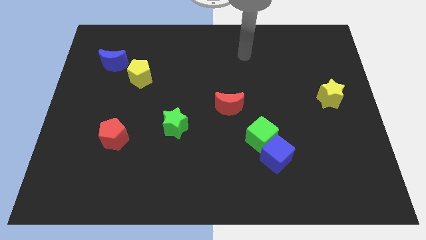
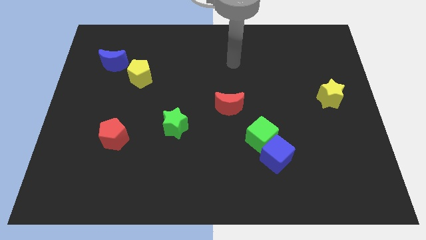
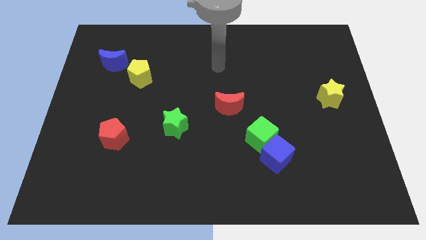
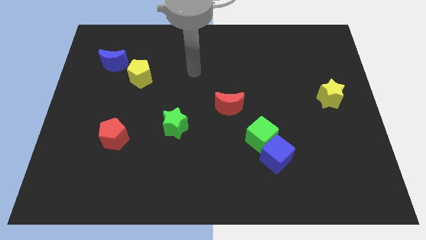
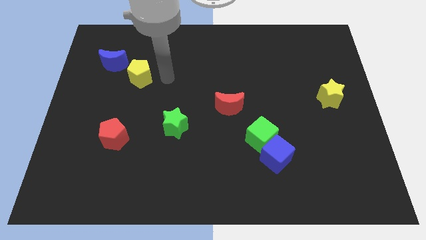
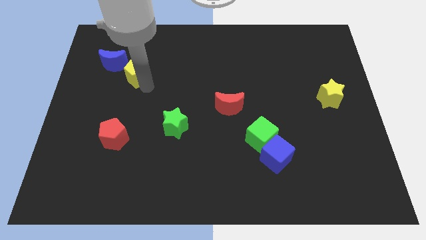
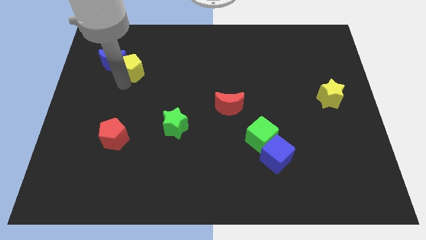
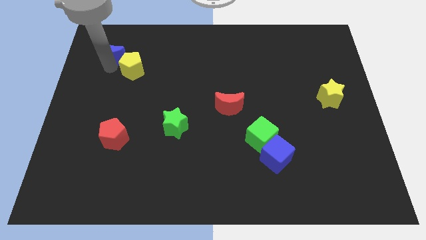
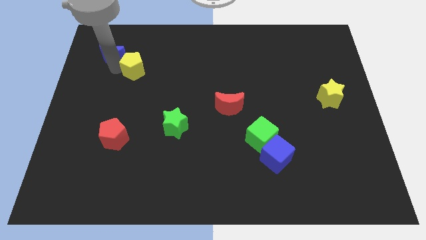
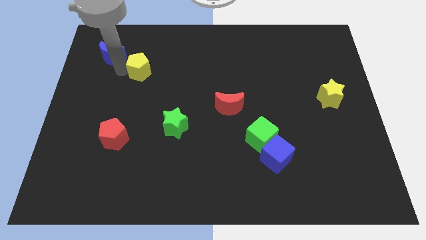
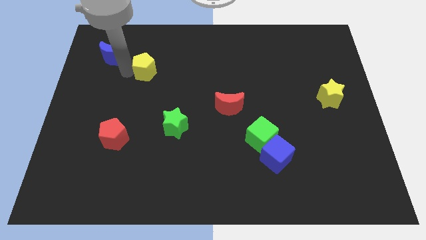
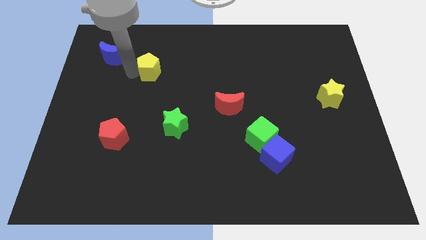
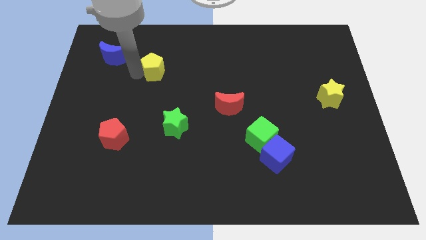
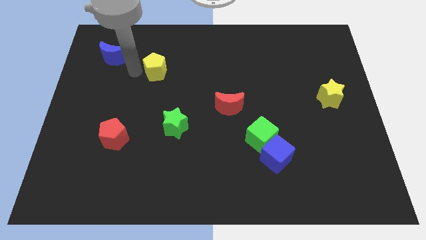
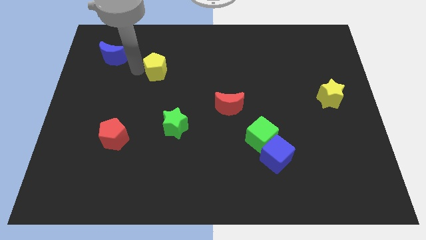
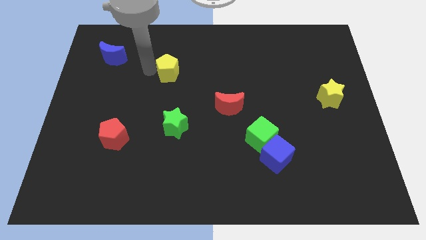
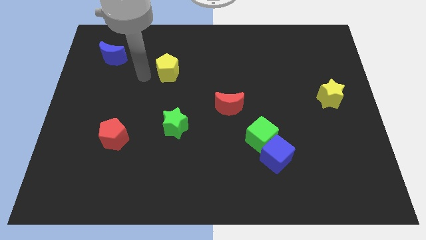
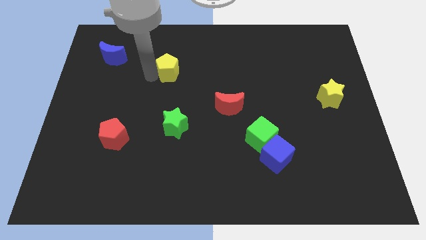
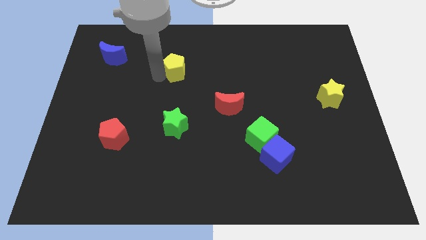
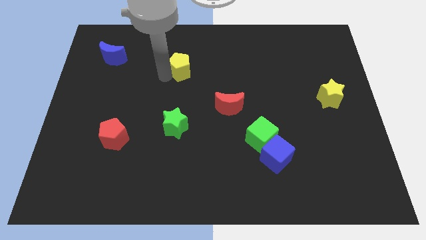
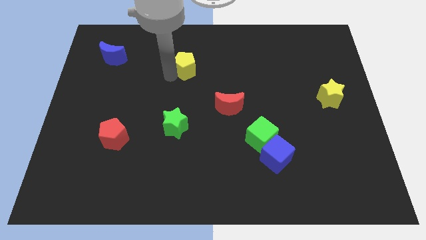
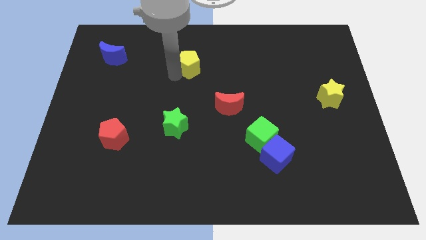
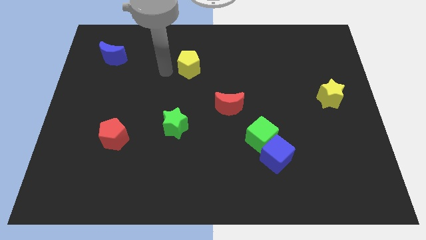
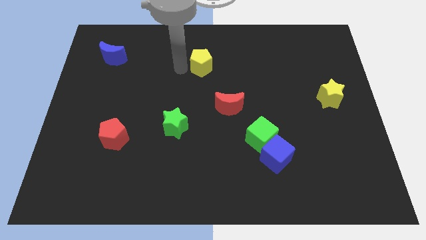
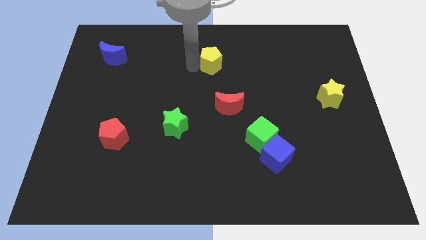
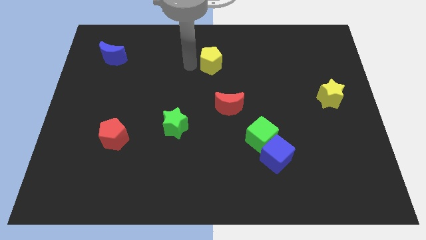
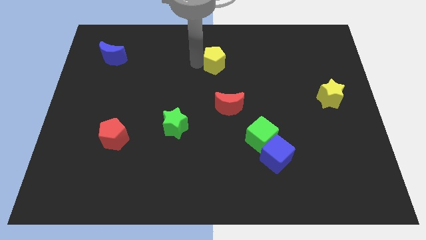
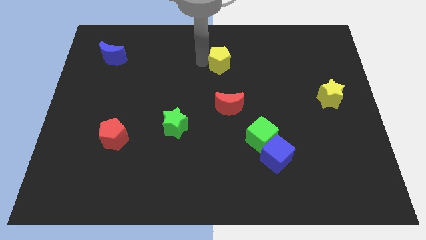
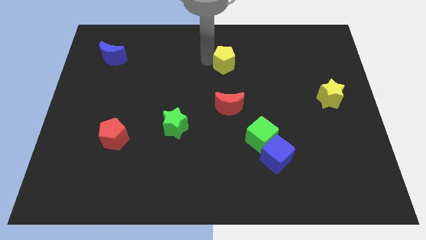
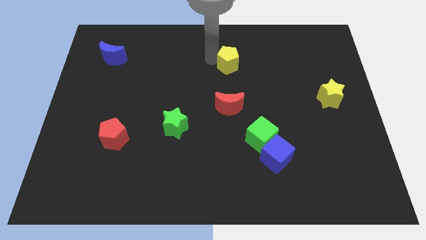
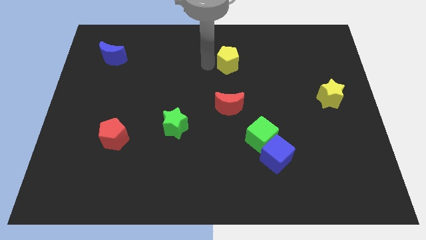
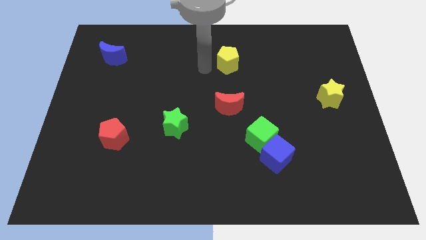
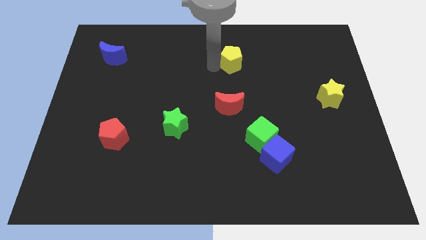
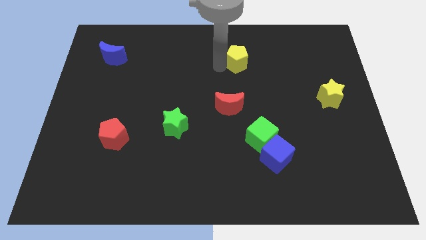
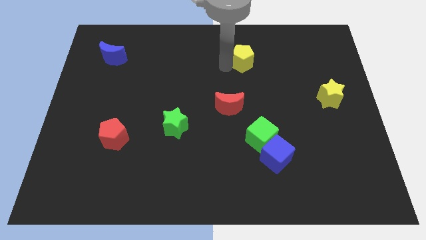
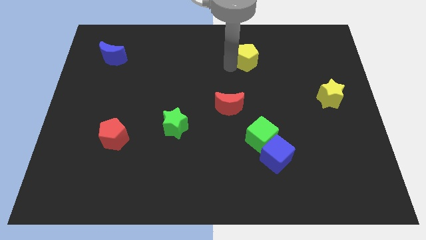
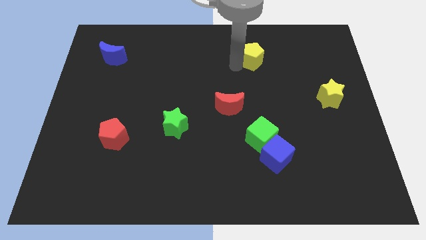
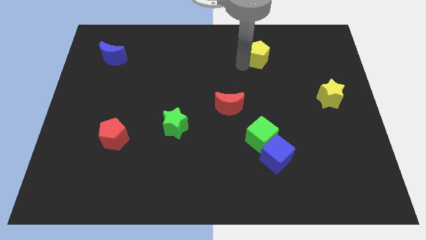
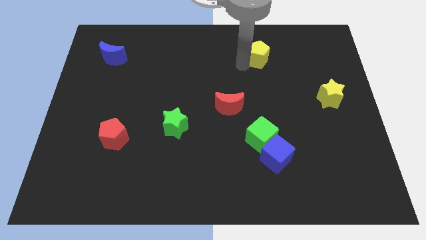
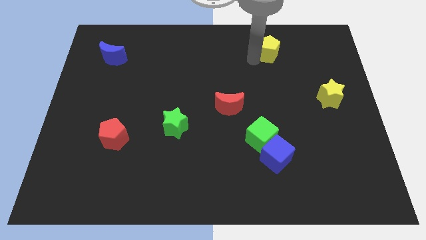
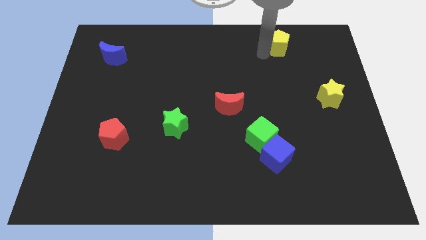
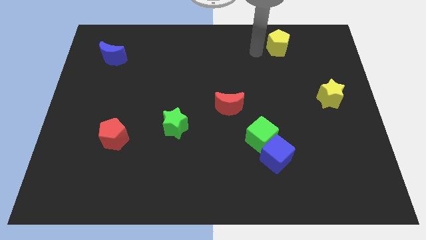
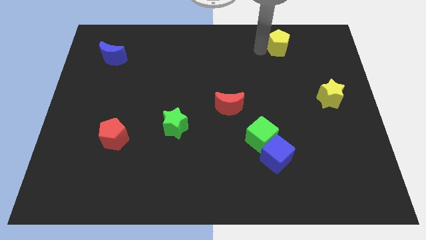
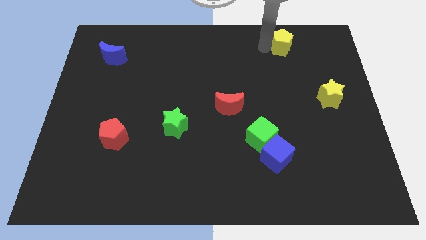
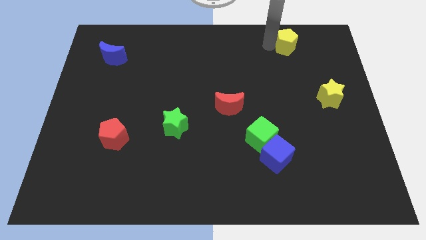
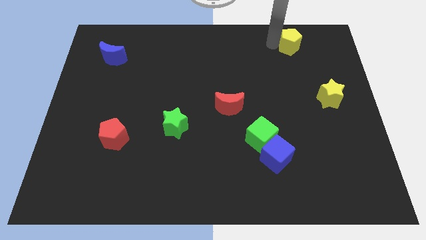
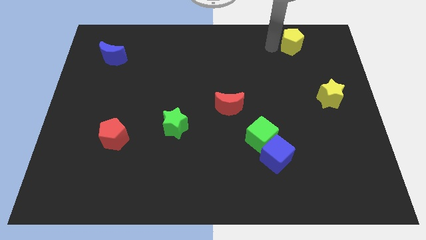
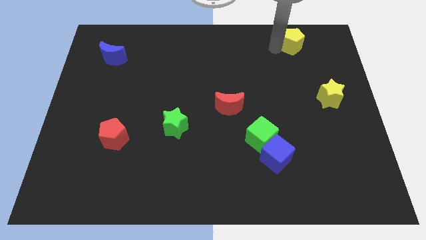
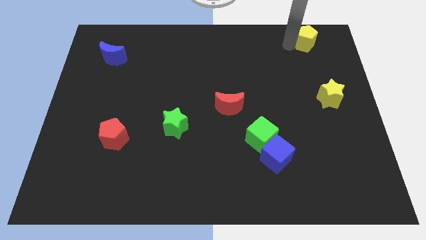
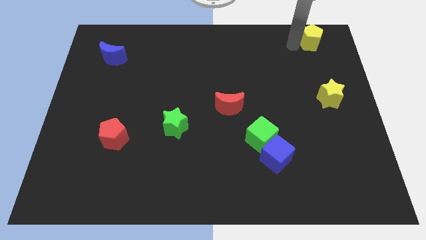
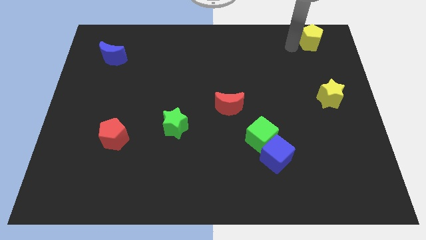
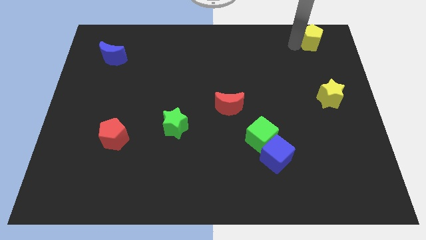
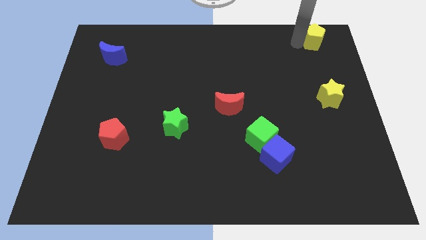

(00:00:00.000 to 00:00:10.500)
slide the yellow pentagon to the upper right corner

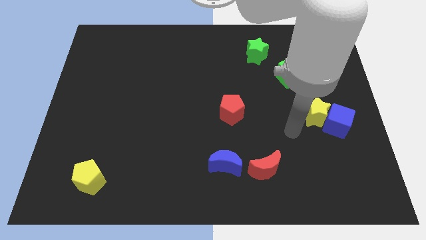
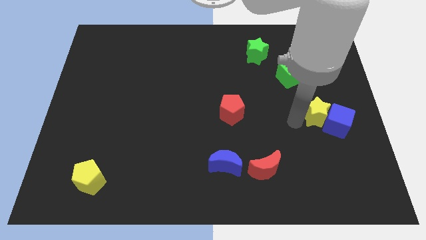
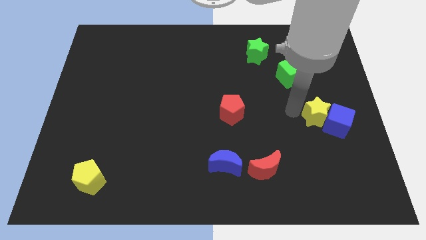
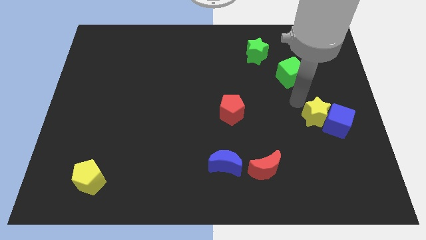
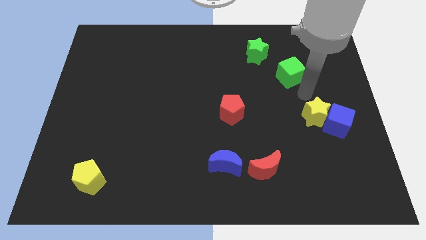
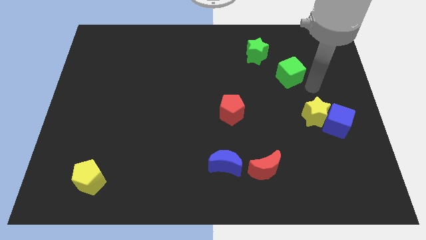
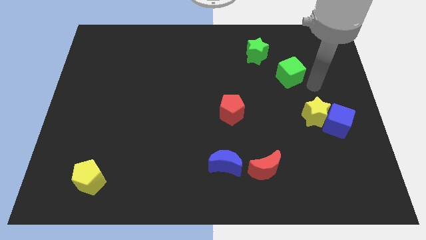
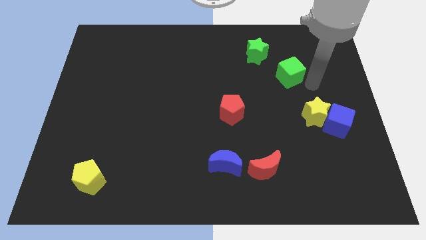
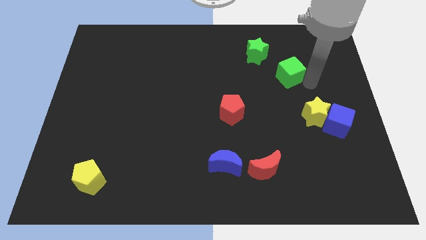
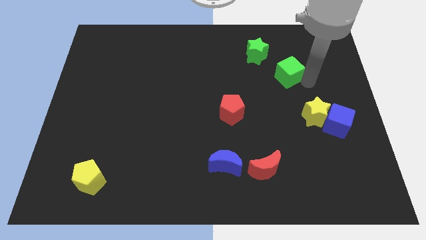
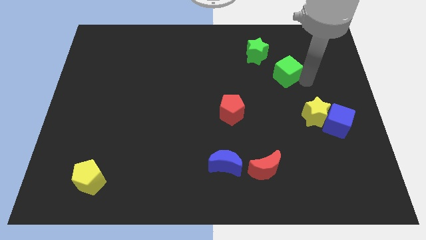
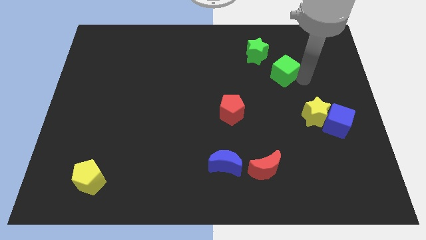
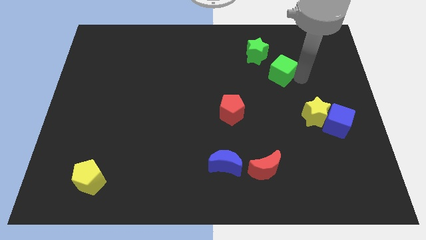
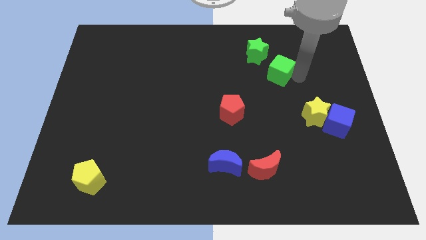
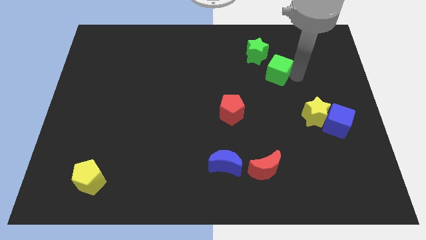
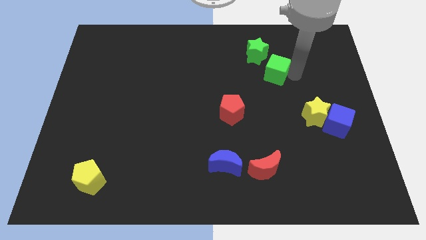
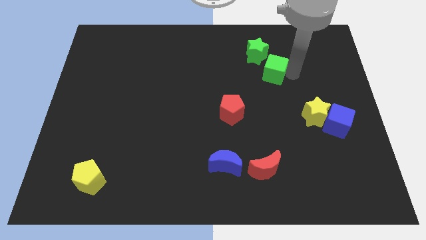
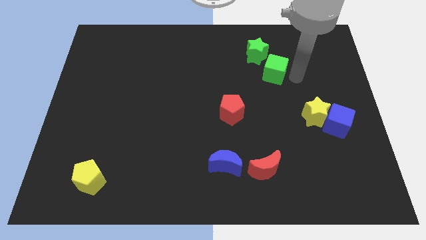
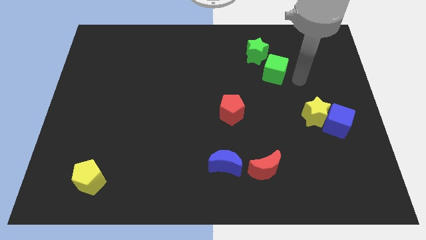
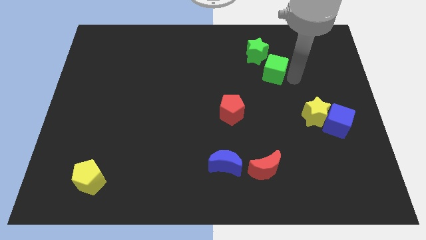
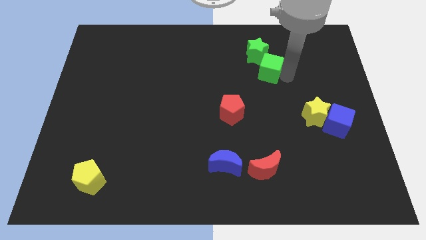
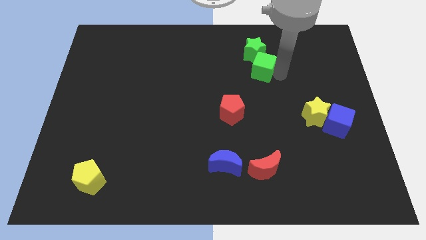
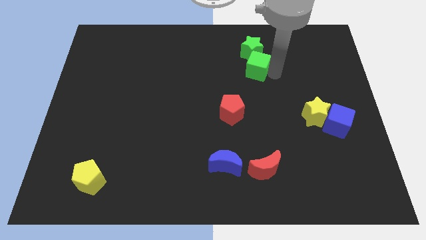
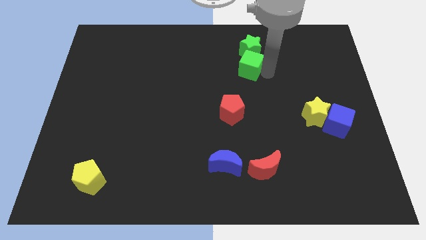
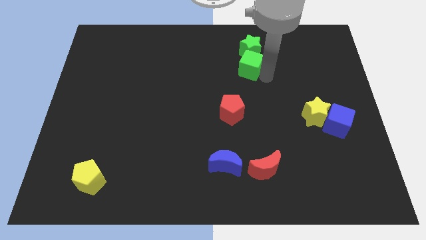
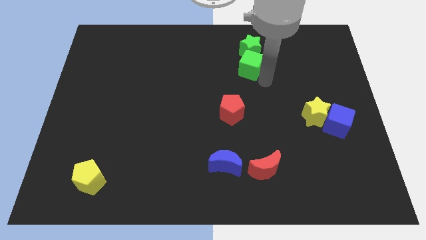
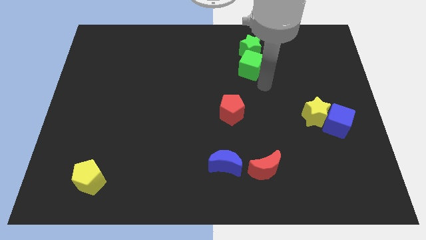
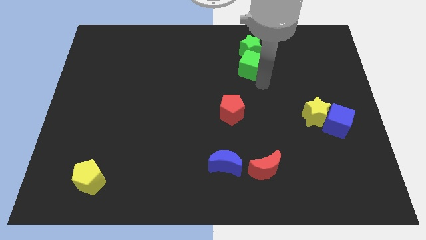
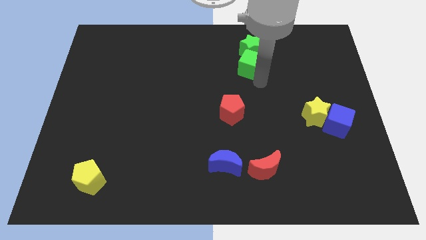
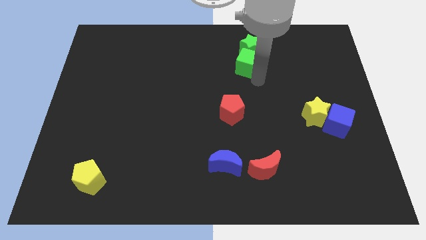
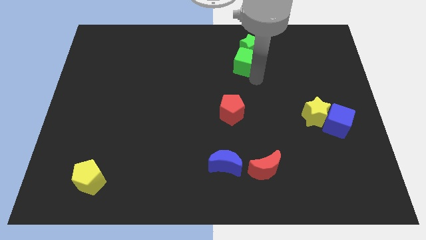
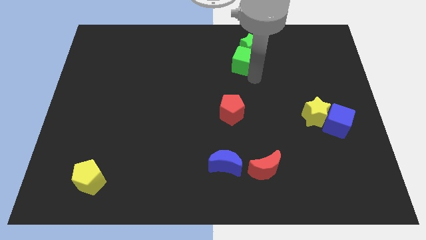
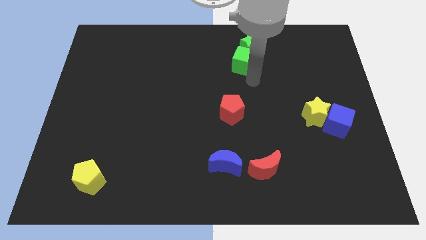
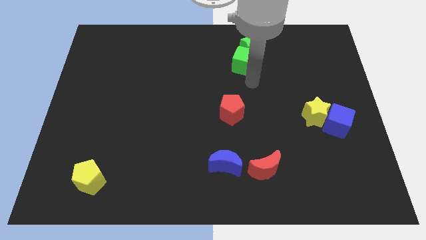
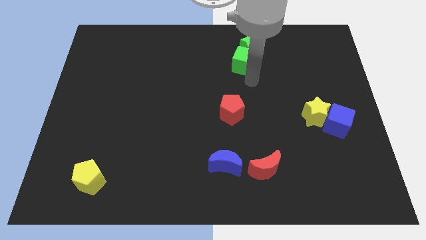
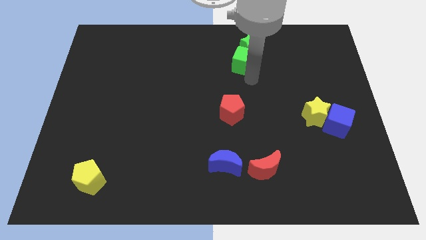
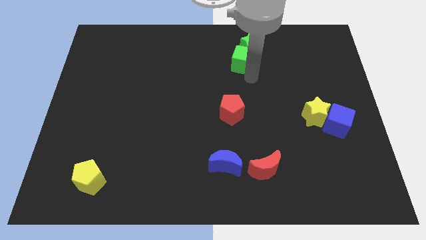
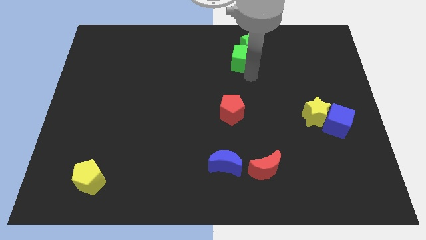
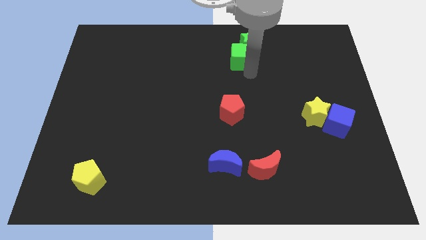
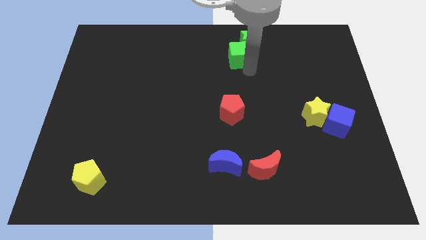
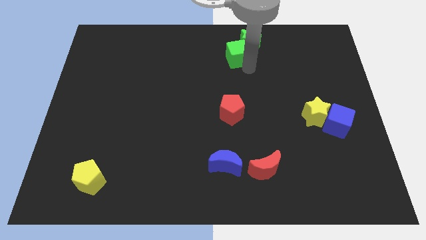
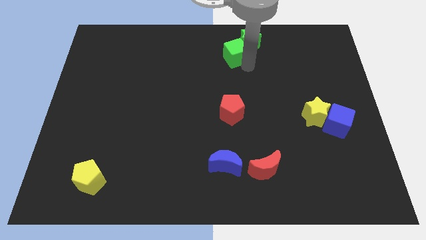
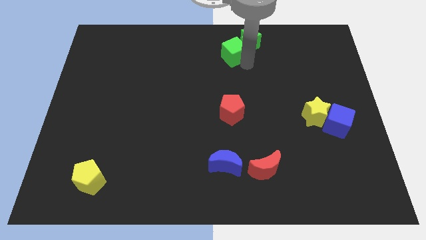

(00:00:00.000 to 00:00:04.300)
slide the green cube to the top side
